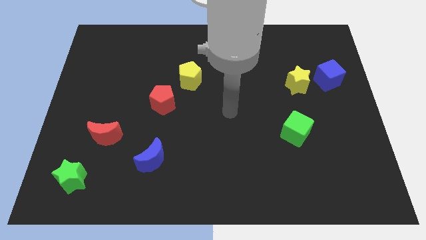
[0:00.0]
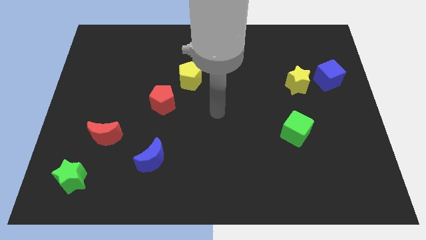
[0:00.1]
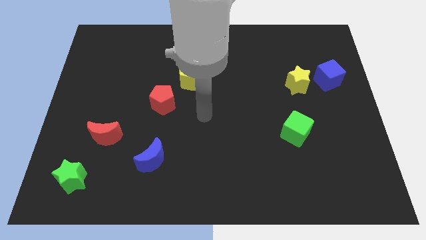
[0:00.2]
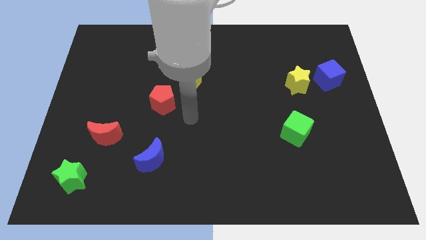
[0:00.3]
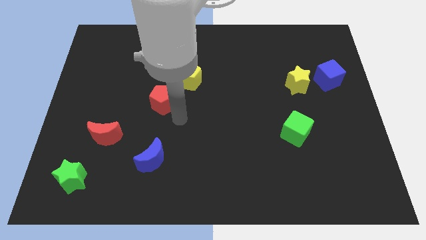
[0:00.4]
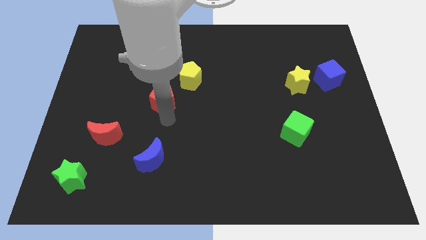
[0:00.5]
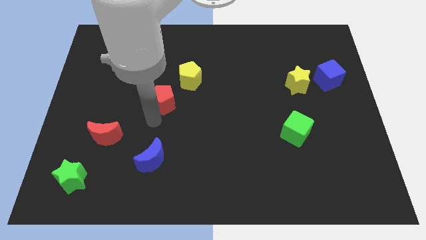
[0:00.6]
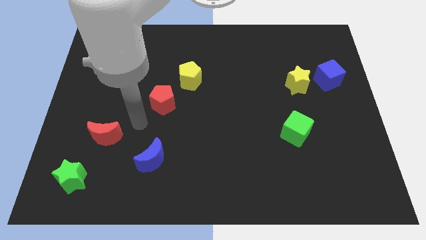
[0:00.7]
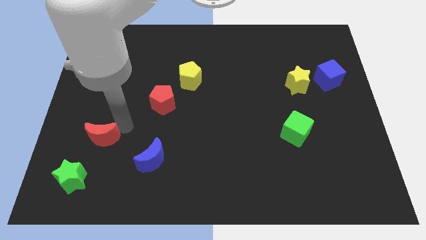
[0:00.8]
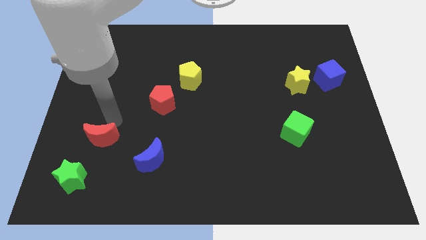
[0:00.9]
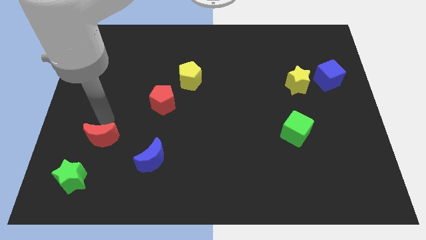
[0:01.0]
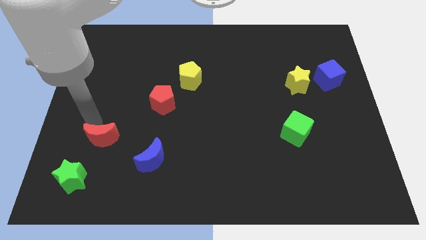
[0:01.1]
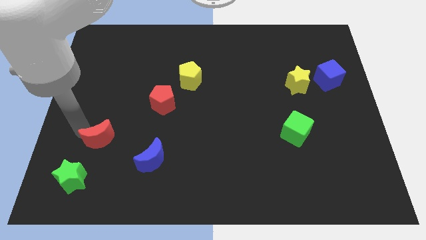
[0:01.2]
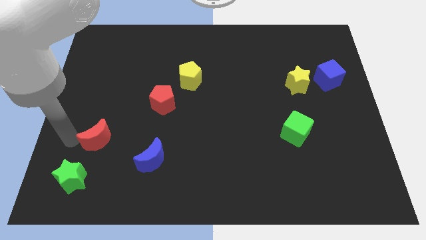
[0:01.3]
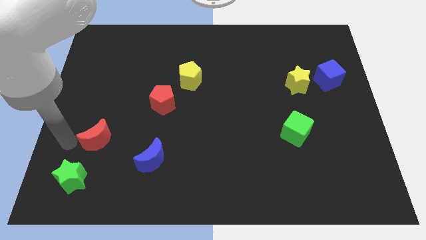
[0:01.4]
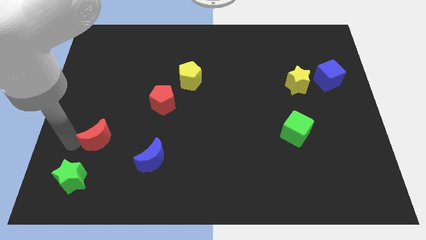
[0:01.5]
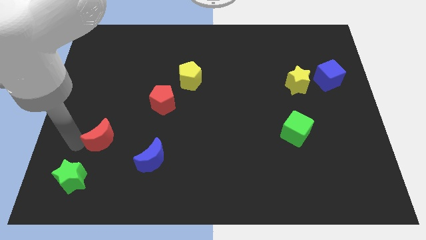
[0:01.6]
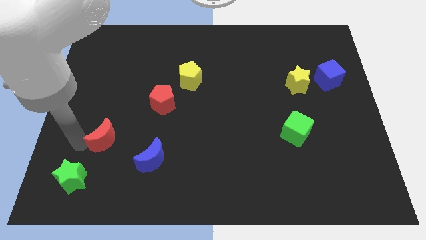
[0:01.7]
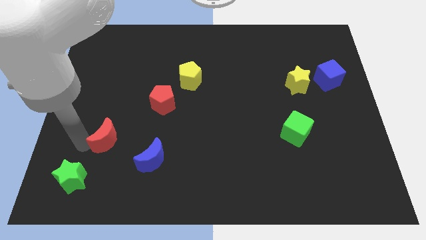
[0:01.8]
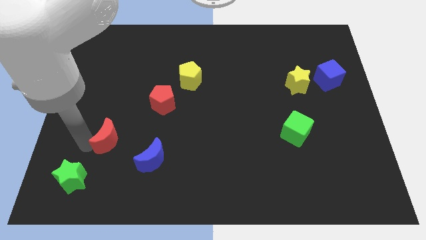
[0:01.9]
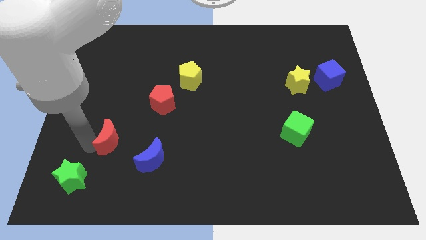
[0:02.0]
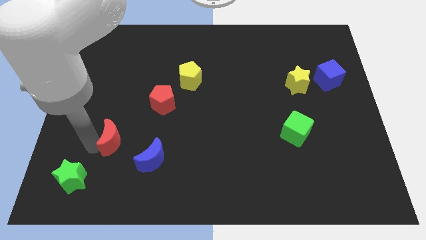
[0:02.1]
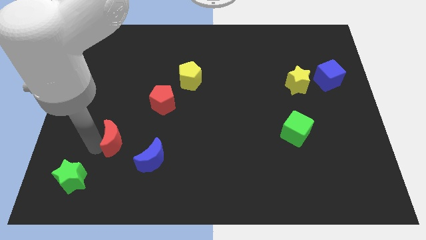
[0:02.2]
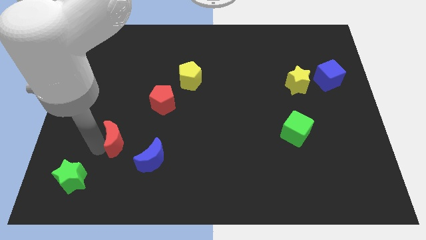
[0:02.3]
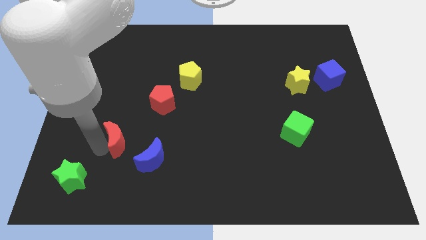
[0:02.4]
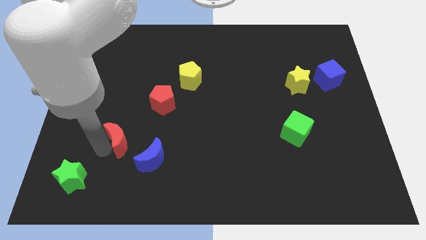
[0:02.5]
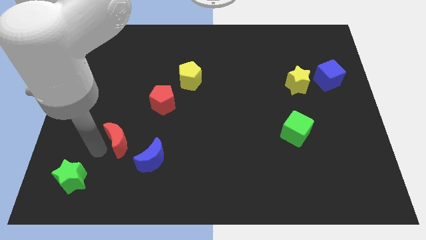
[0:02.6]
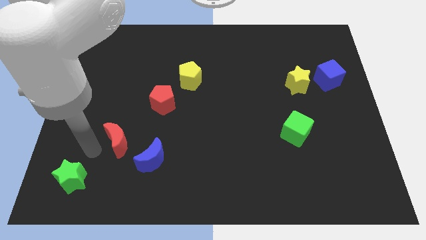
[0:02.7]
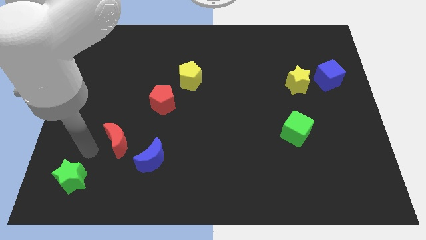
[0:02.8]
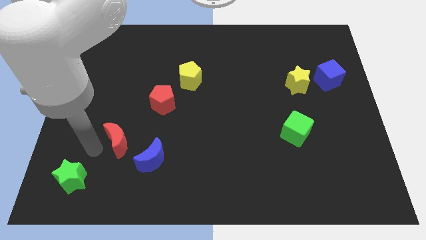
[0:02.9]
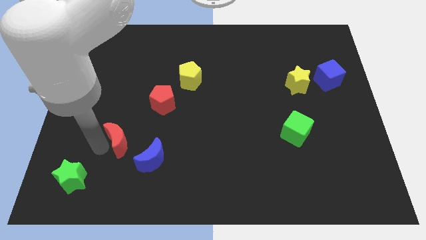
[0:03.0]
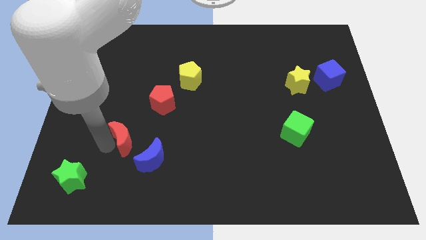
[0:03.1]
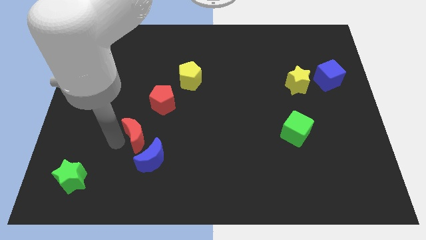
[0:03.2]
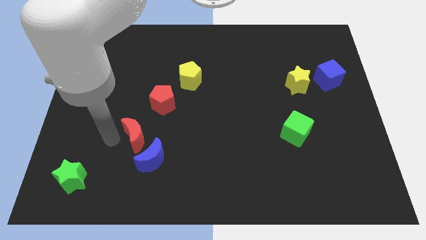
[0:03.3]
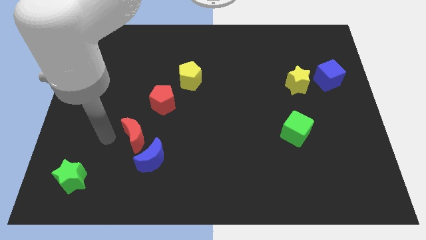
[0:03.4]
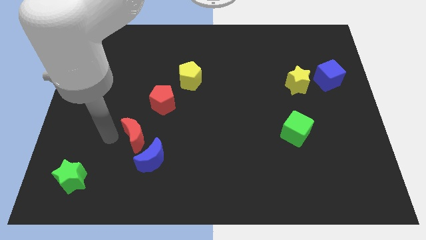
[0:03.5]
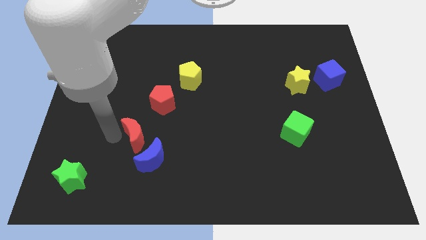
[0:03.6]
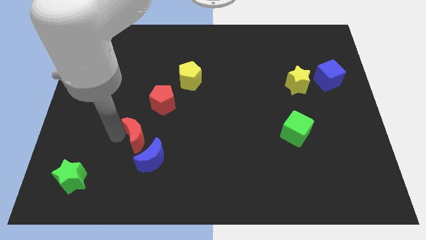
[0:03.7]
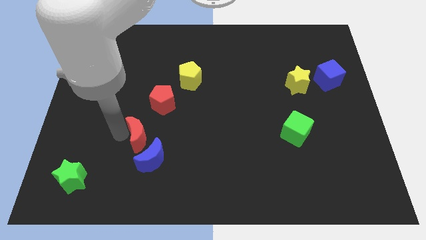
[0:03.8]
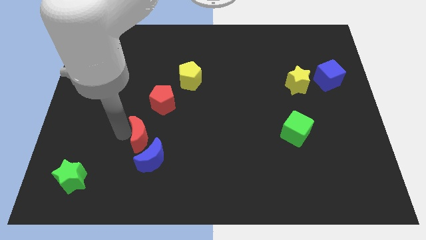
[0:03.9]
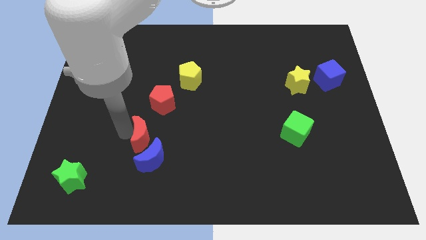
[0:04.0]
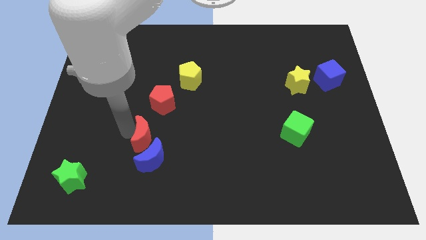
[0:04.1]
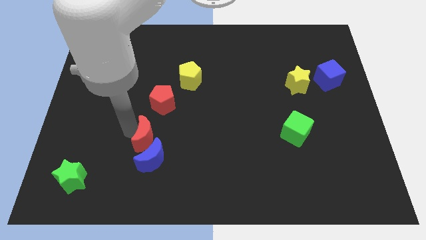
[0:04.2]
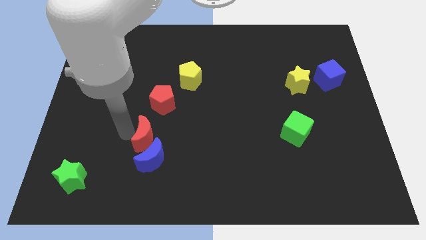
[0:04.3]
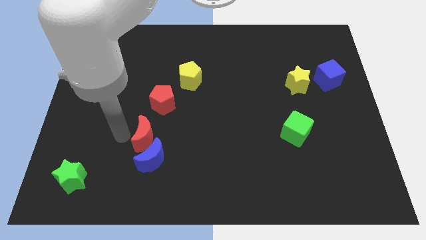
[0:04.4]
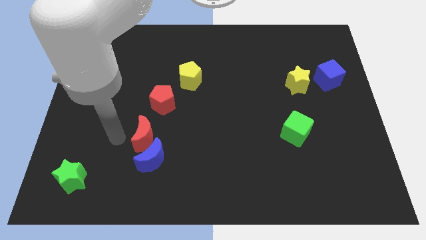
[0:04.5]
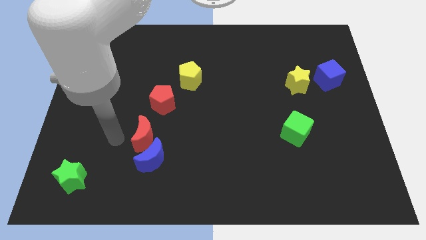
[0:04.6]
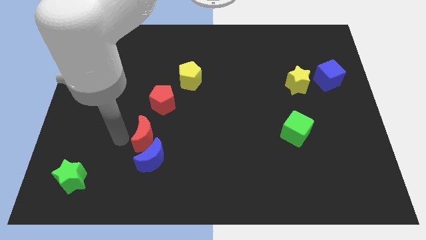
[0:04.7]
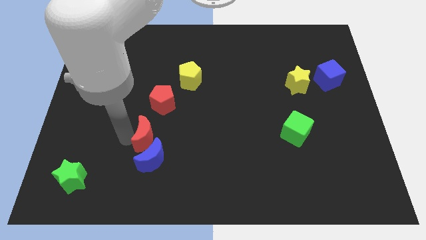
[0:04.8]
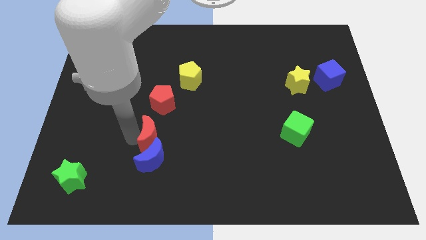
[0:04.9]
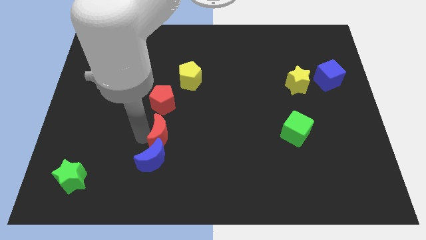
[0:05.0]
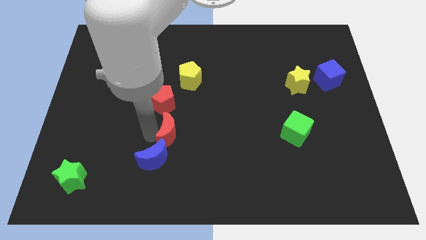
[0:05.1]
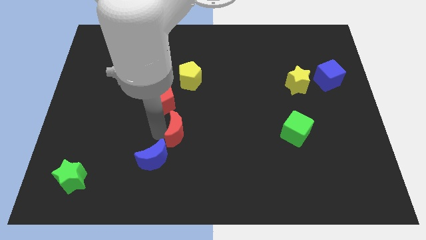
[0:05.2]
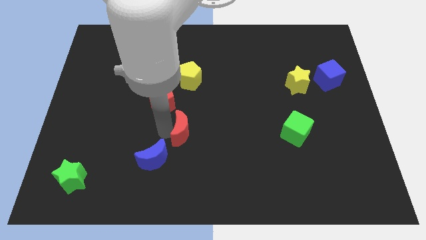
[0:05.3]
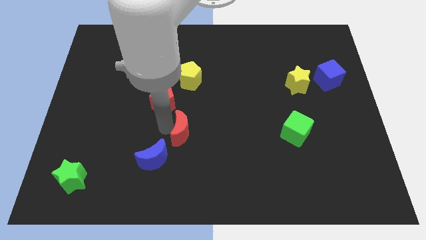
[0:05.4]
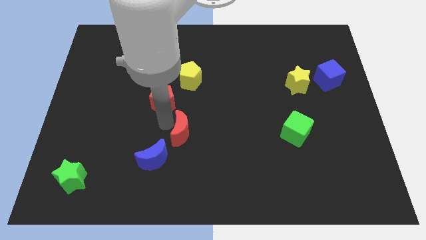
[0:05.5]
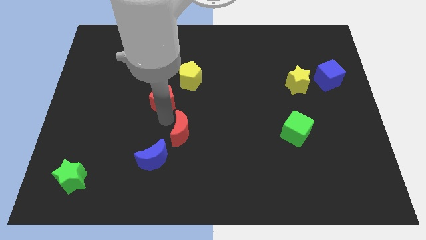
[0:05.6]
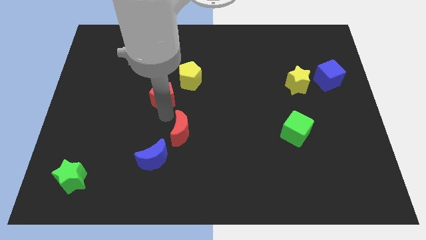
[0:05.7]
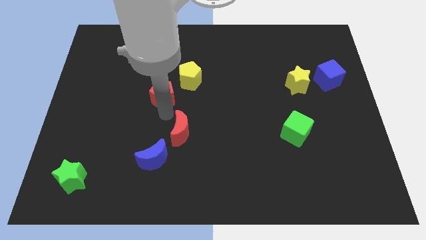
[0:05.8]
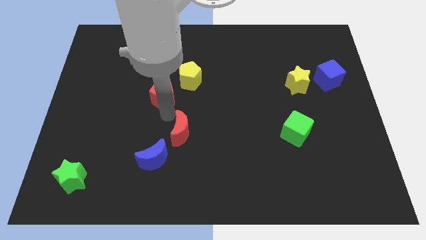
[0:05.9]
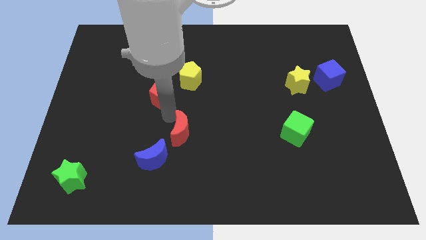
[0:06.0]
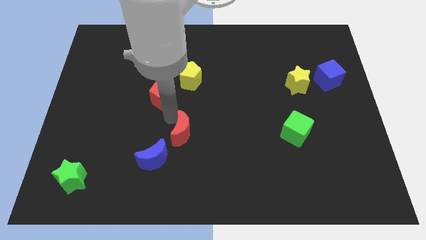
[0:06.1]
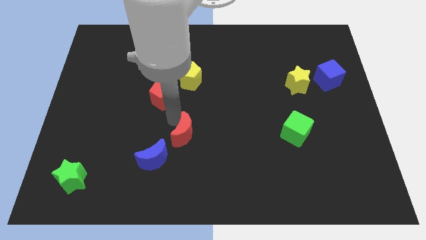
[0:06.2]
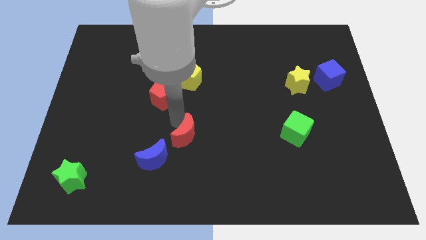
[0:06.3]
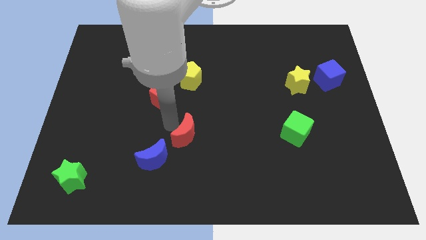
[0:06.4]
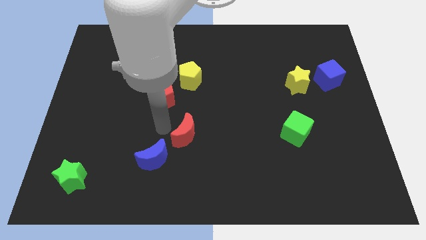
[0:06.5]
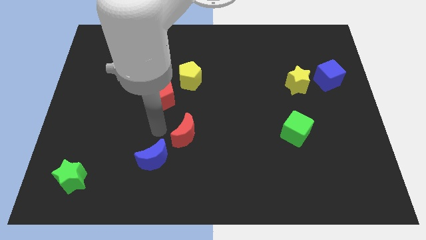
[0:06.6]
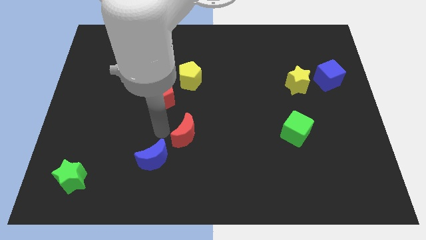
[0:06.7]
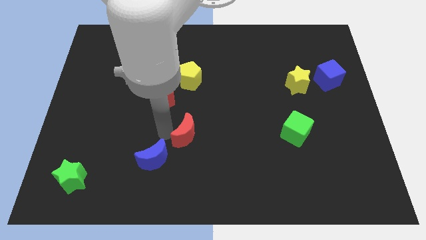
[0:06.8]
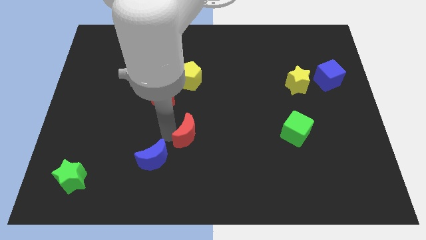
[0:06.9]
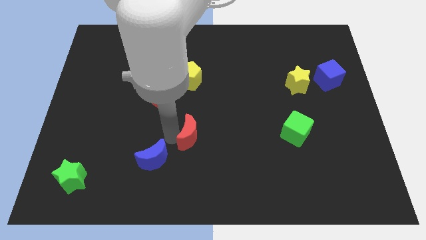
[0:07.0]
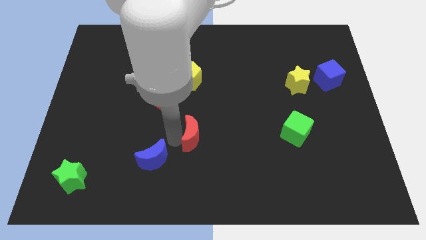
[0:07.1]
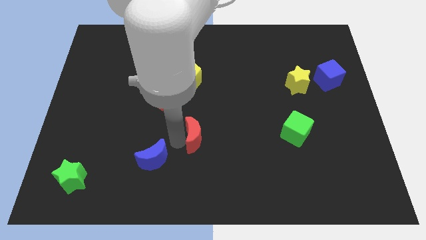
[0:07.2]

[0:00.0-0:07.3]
move the red moon right

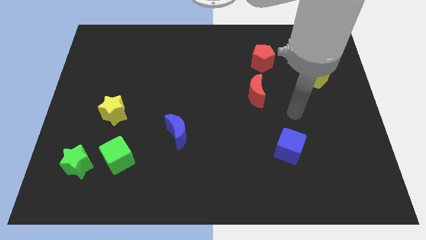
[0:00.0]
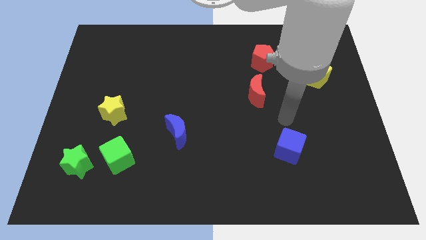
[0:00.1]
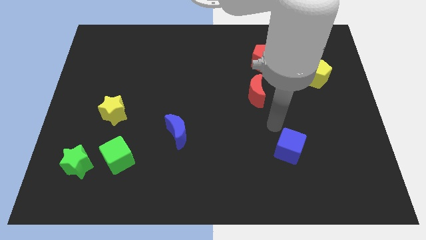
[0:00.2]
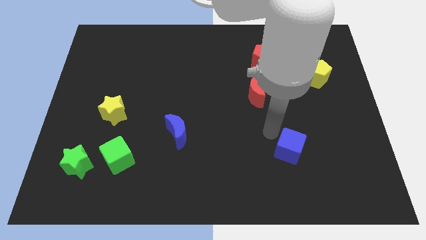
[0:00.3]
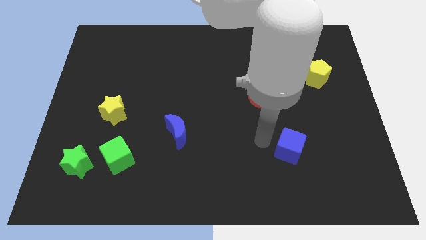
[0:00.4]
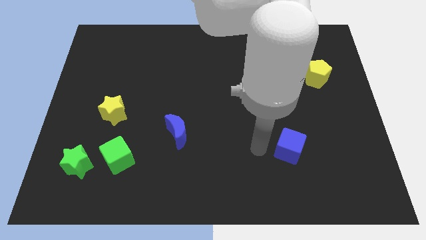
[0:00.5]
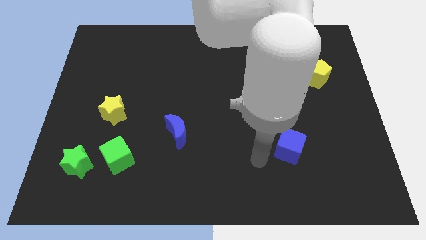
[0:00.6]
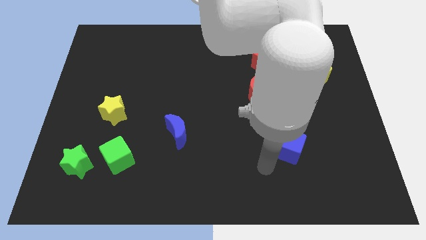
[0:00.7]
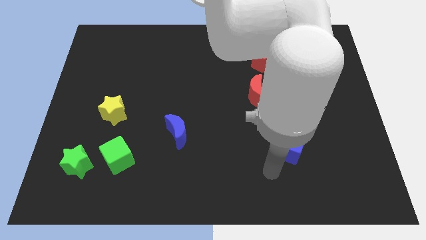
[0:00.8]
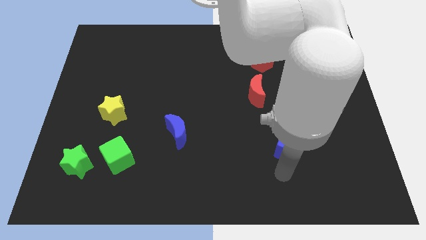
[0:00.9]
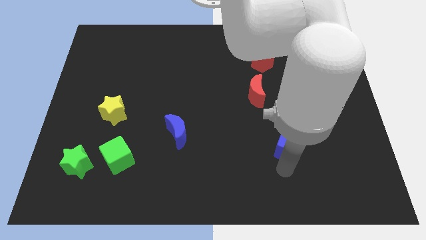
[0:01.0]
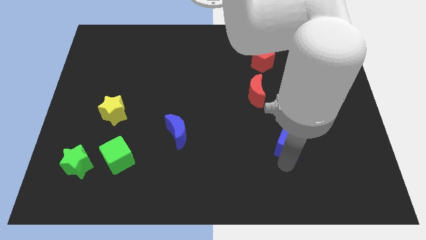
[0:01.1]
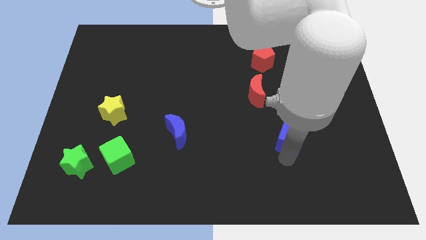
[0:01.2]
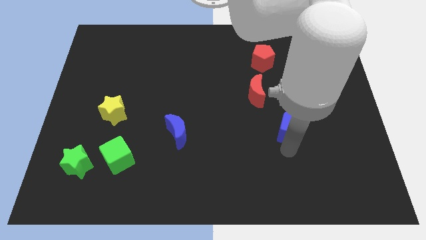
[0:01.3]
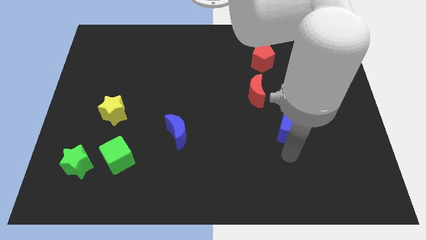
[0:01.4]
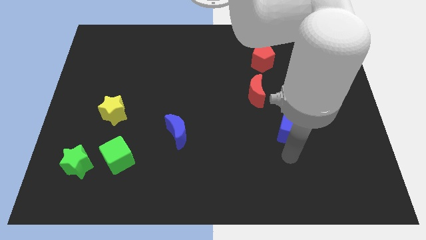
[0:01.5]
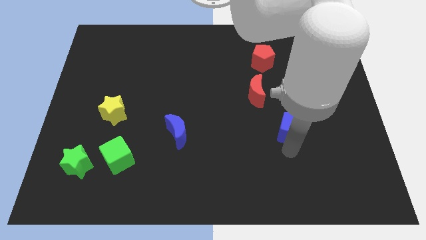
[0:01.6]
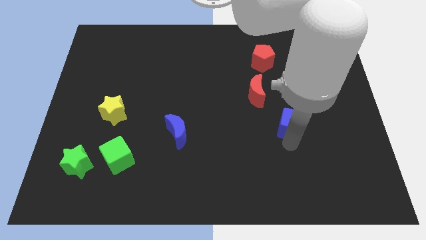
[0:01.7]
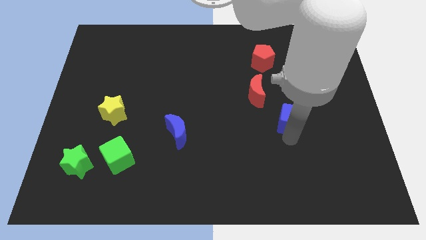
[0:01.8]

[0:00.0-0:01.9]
slightly slide the blue cube up
